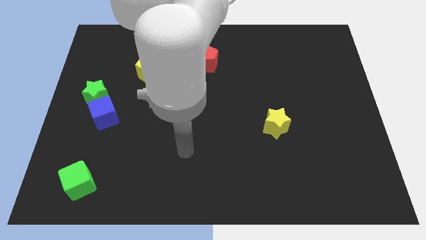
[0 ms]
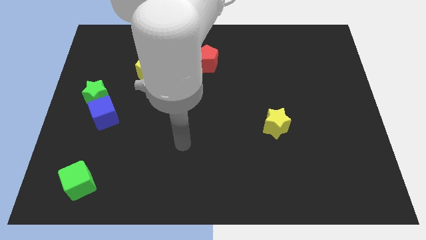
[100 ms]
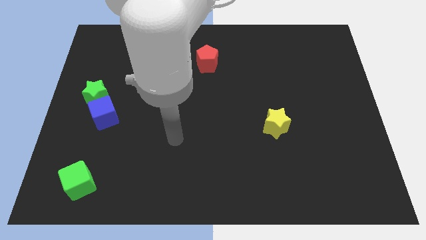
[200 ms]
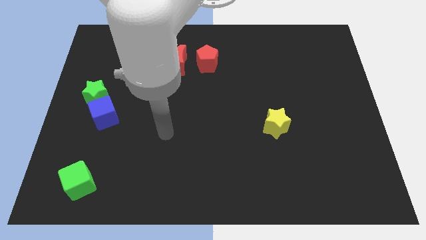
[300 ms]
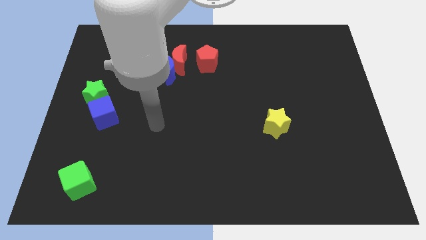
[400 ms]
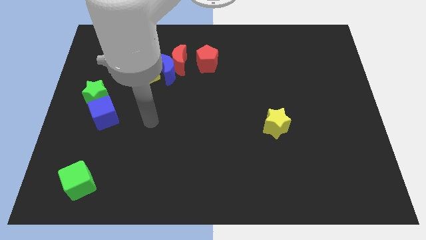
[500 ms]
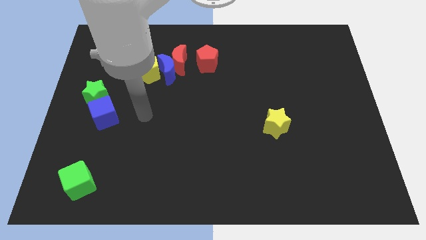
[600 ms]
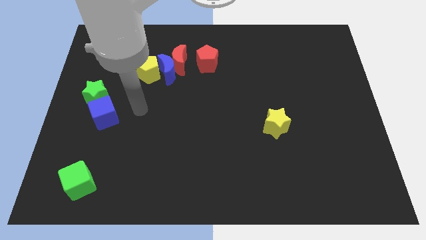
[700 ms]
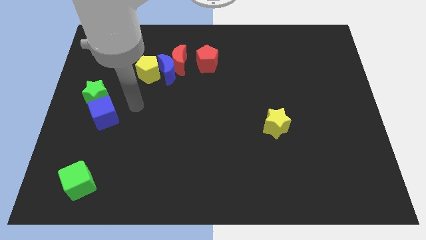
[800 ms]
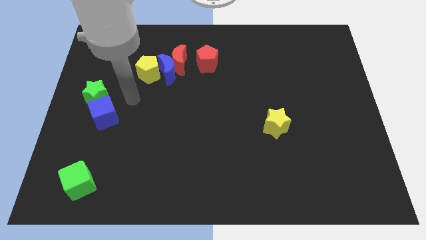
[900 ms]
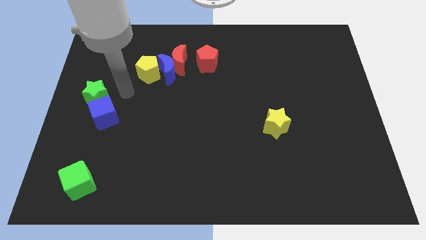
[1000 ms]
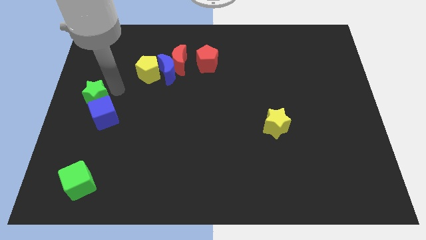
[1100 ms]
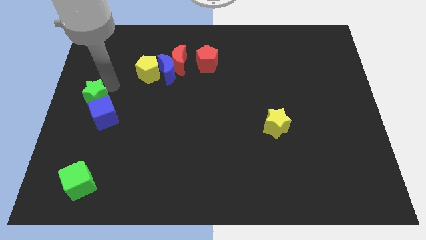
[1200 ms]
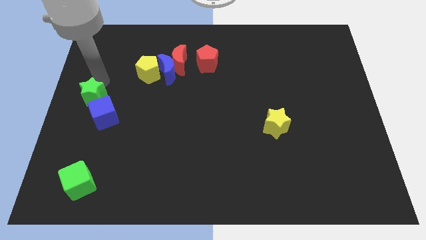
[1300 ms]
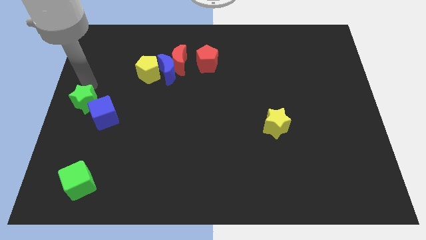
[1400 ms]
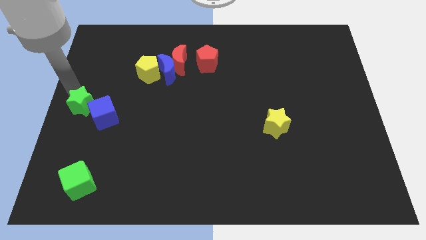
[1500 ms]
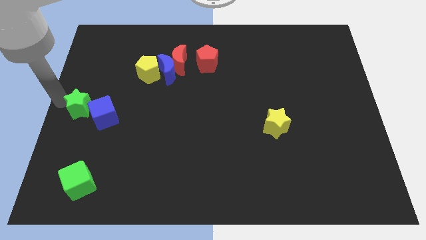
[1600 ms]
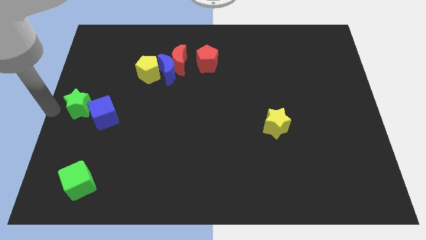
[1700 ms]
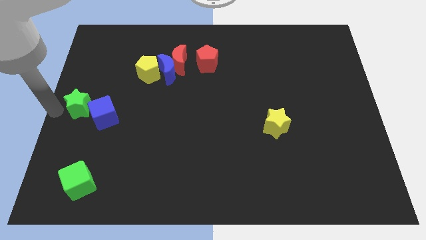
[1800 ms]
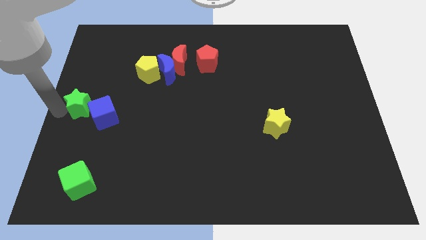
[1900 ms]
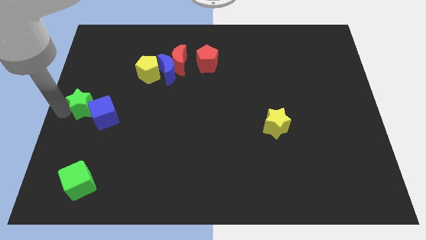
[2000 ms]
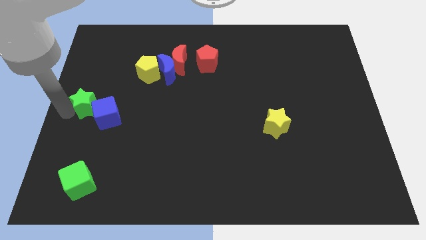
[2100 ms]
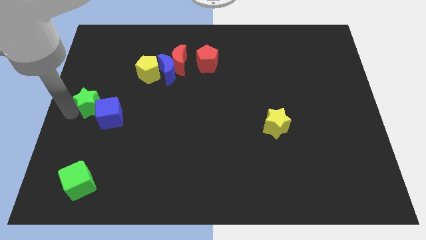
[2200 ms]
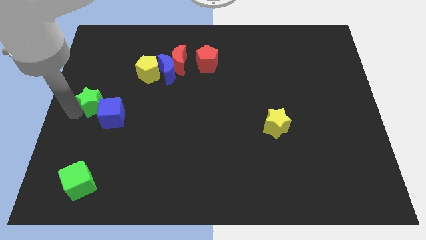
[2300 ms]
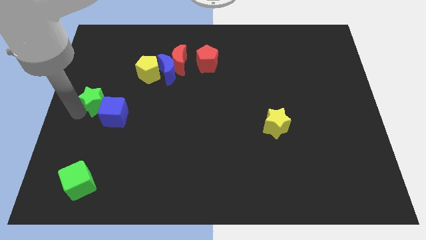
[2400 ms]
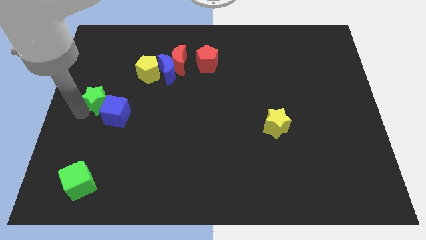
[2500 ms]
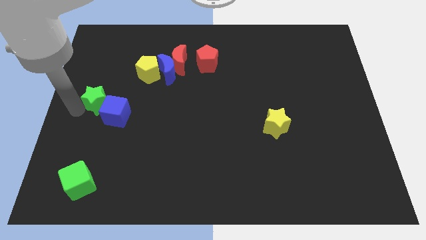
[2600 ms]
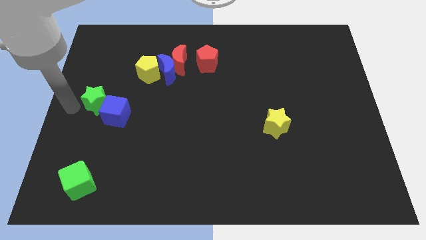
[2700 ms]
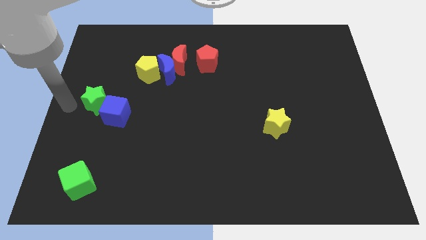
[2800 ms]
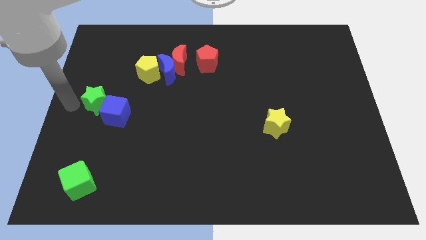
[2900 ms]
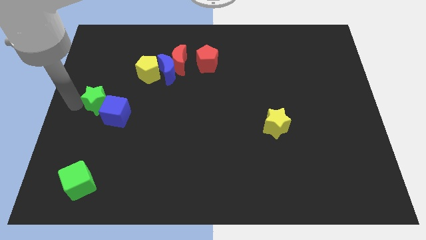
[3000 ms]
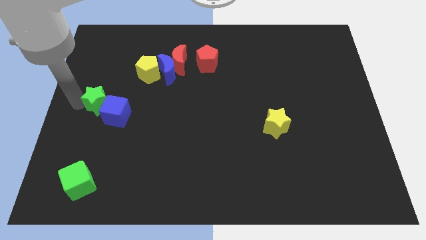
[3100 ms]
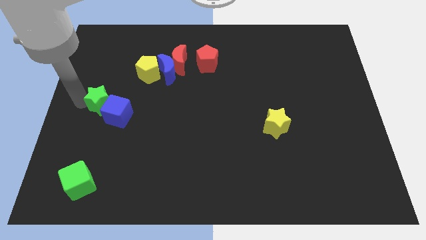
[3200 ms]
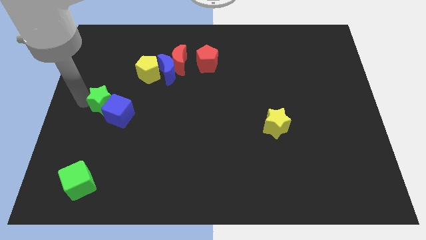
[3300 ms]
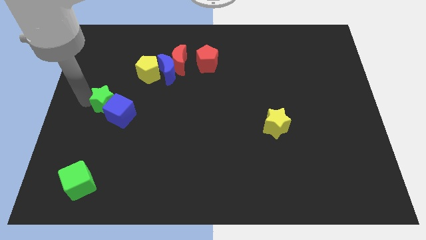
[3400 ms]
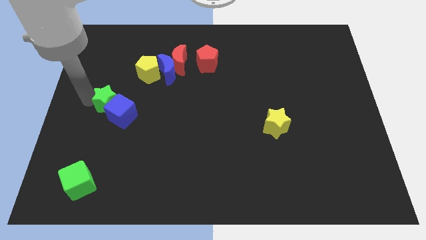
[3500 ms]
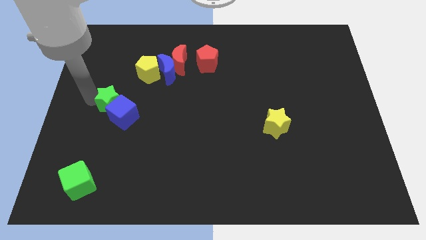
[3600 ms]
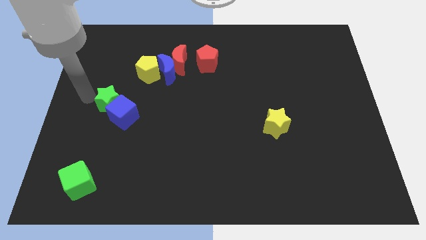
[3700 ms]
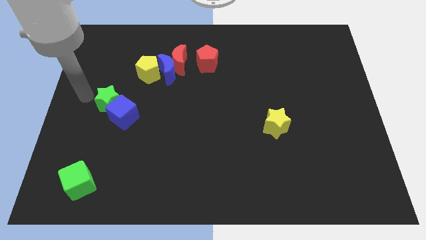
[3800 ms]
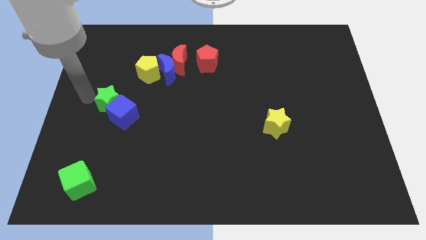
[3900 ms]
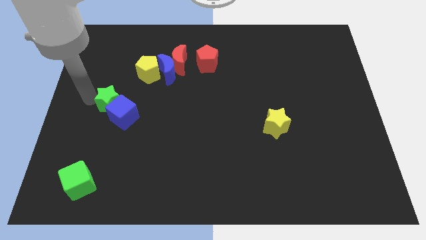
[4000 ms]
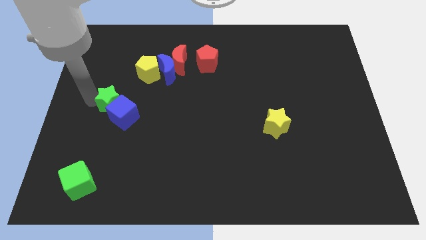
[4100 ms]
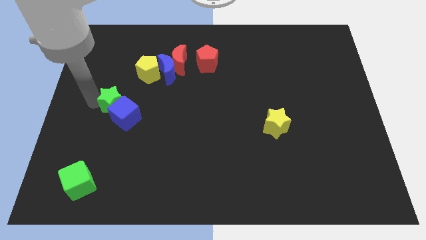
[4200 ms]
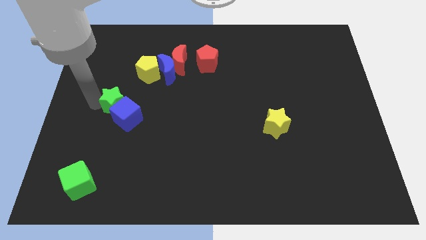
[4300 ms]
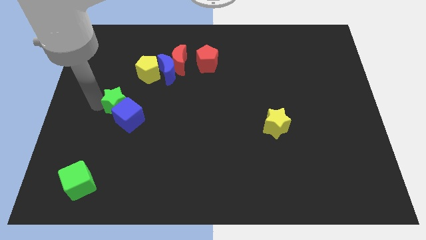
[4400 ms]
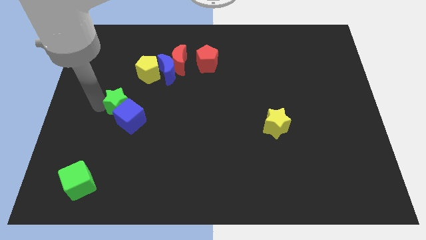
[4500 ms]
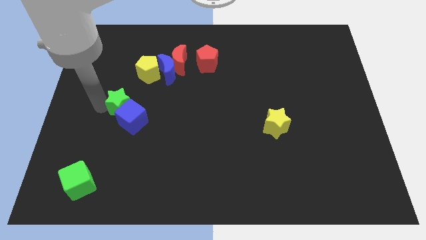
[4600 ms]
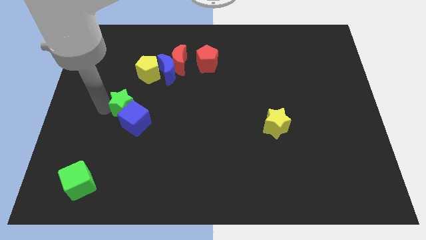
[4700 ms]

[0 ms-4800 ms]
slide the green star downwards and to the right a little bit

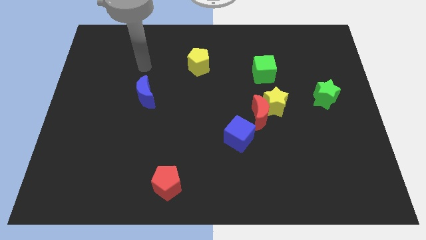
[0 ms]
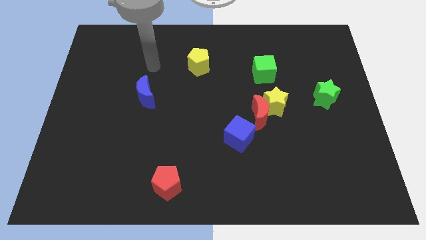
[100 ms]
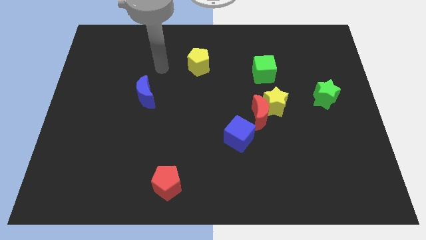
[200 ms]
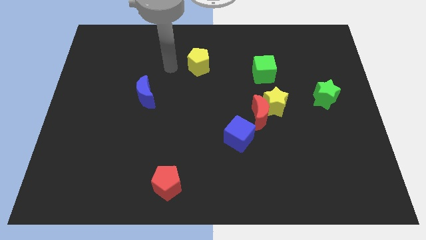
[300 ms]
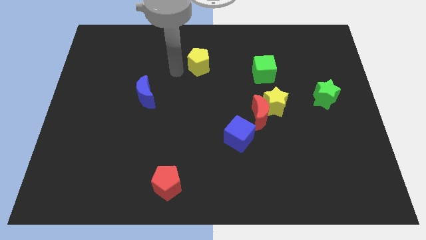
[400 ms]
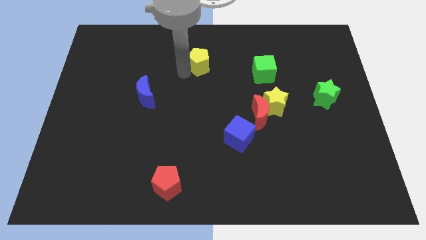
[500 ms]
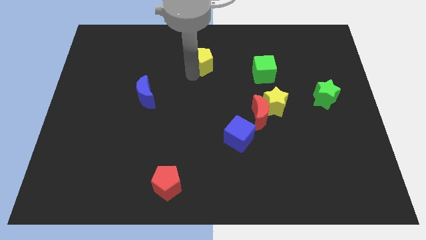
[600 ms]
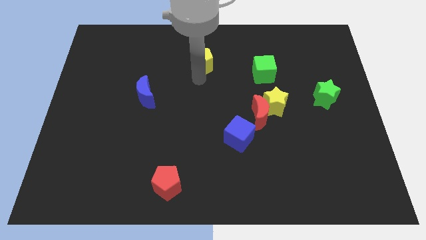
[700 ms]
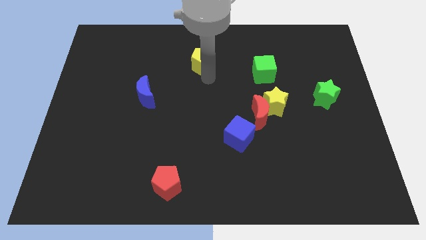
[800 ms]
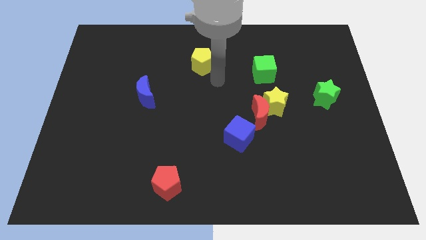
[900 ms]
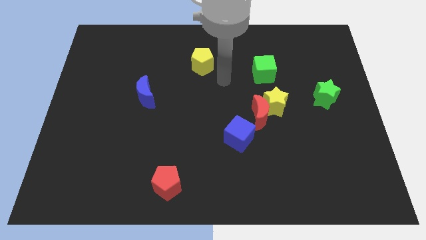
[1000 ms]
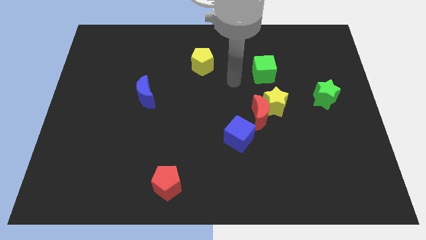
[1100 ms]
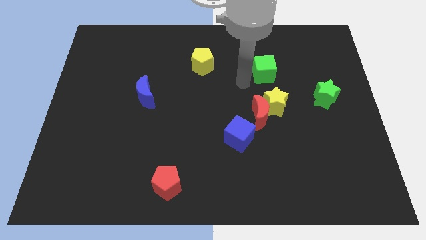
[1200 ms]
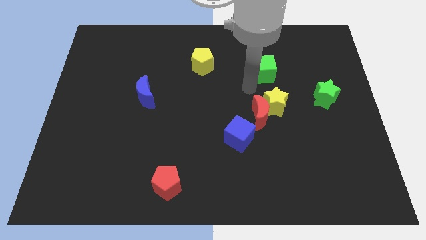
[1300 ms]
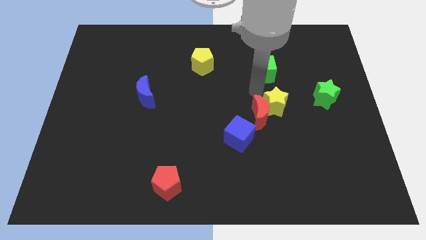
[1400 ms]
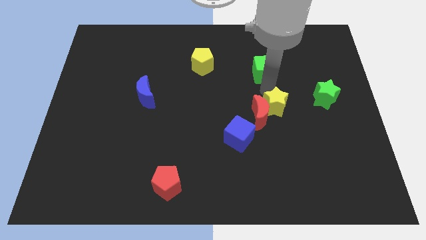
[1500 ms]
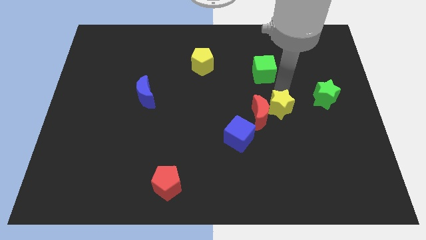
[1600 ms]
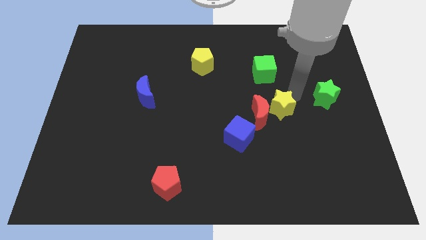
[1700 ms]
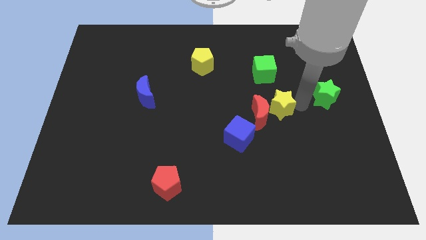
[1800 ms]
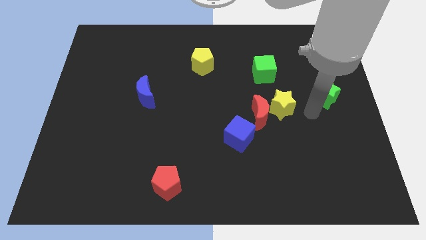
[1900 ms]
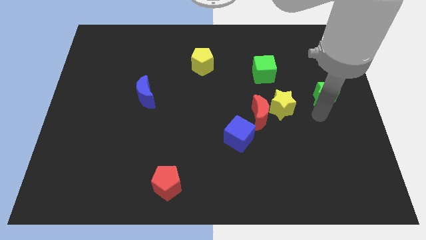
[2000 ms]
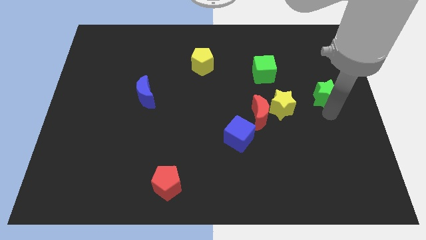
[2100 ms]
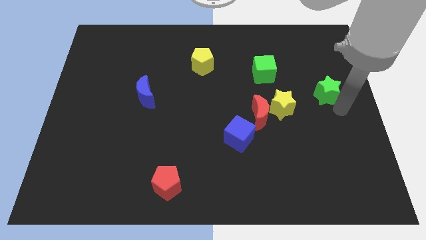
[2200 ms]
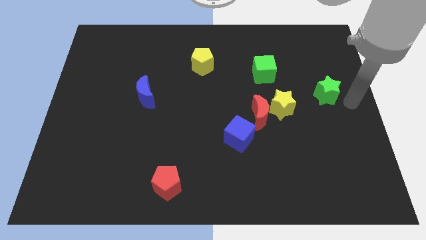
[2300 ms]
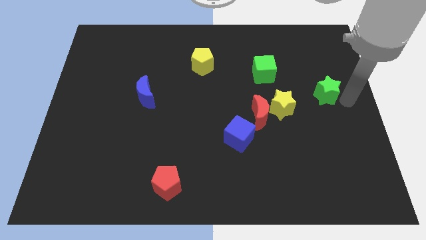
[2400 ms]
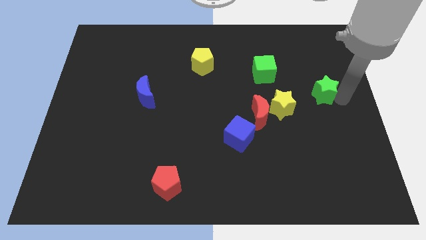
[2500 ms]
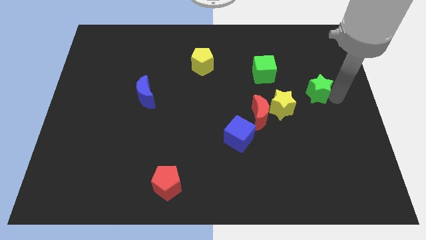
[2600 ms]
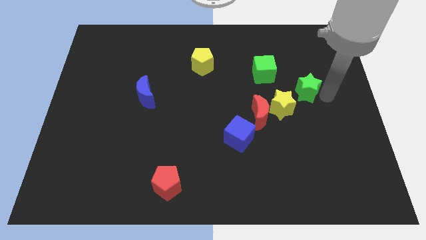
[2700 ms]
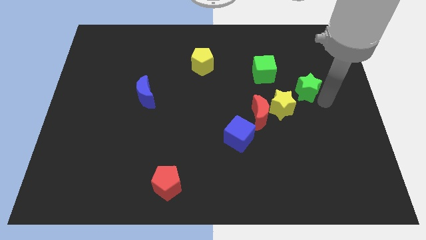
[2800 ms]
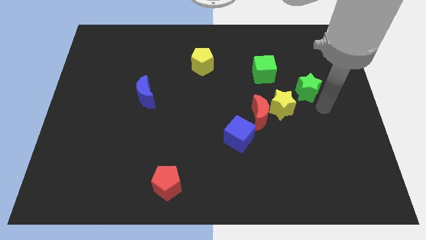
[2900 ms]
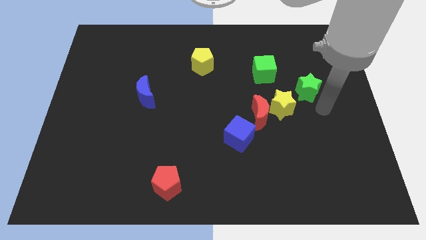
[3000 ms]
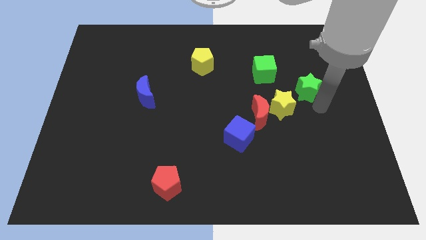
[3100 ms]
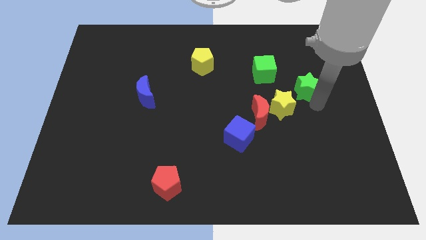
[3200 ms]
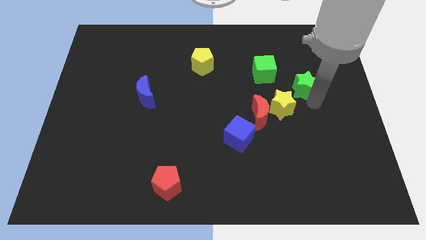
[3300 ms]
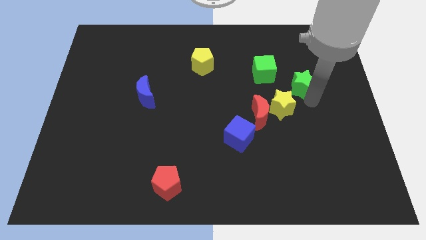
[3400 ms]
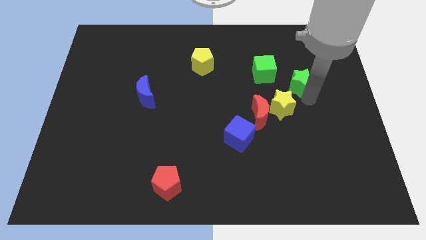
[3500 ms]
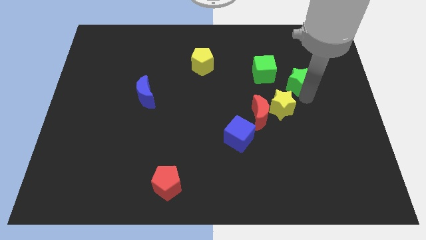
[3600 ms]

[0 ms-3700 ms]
slightly move the green star diagonally upwards and left
